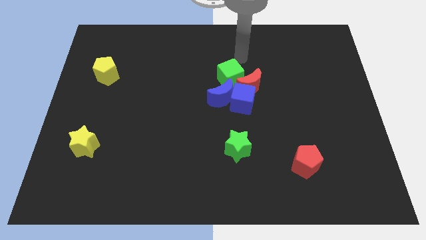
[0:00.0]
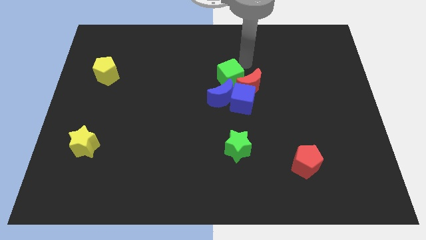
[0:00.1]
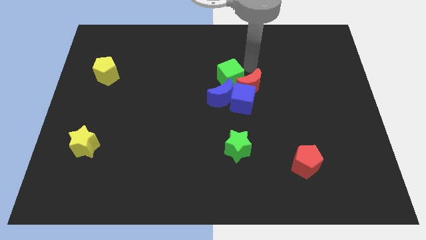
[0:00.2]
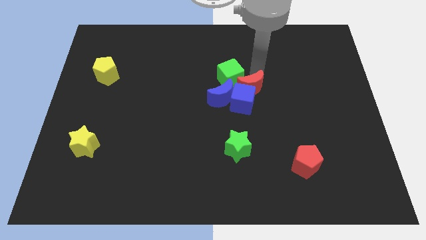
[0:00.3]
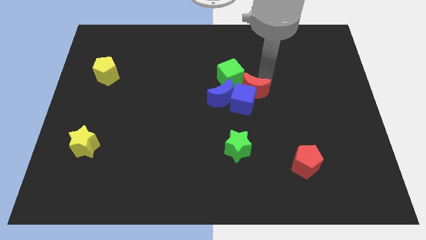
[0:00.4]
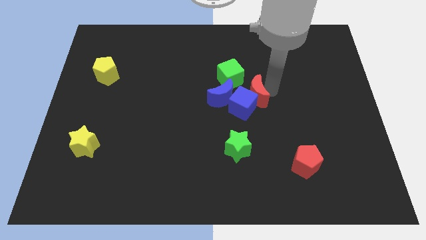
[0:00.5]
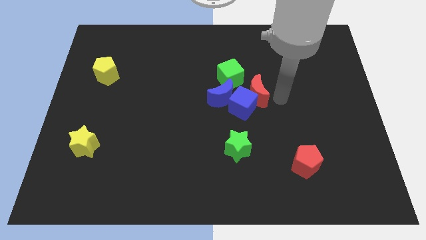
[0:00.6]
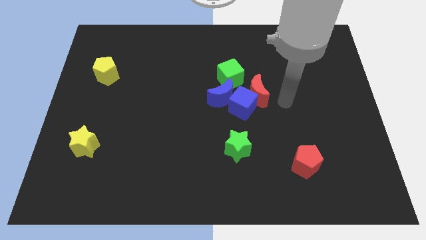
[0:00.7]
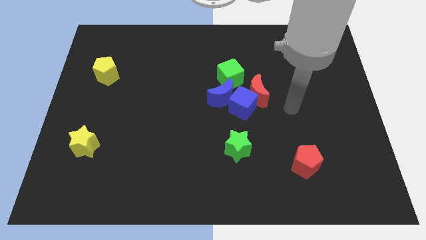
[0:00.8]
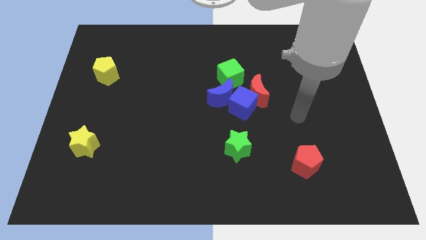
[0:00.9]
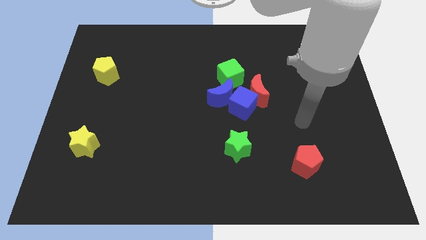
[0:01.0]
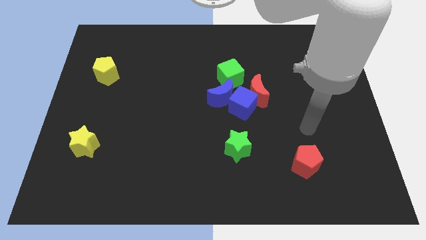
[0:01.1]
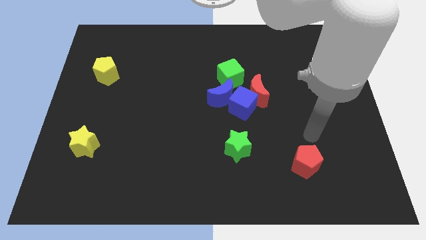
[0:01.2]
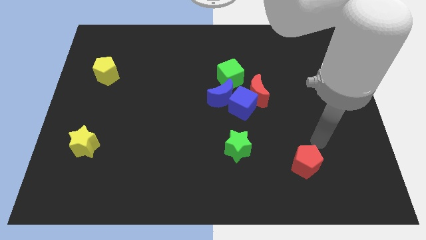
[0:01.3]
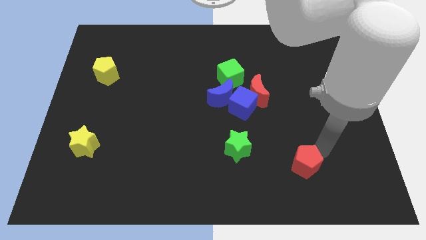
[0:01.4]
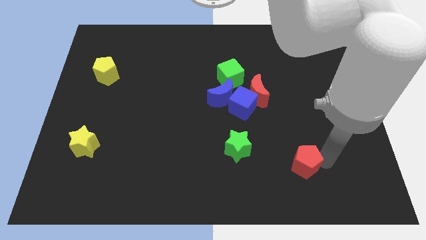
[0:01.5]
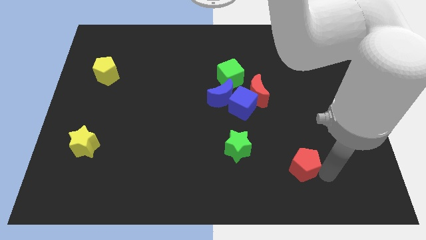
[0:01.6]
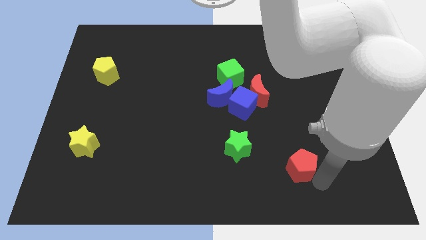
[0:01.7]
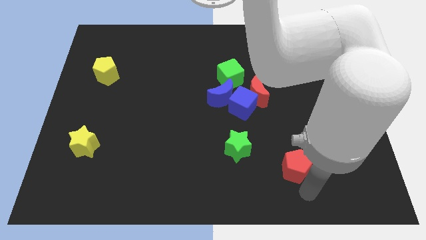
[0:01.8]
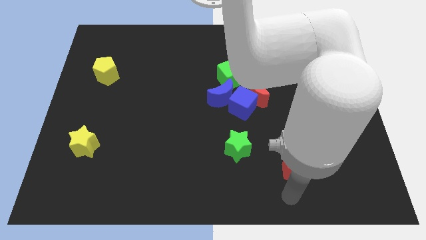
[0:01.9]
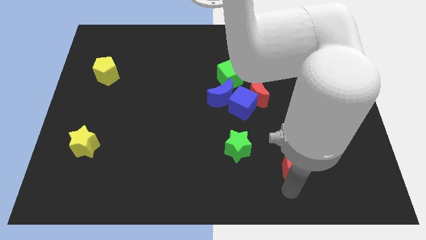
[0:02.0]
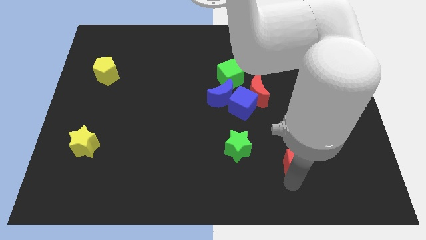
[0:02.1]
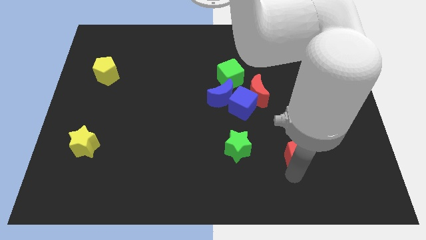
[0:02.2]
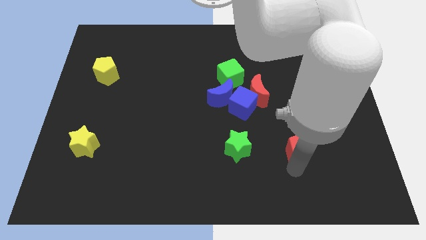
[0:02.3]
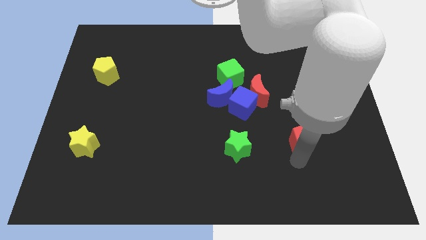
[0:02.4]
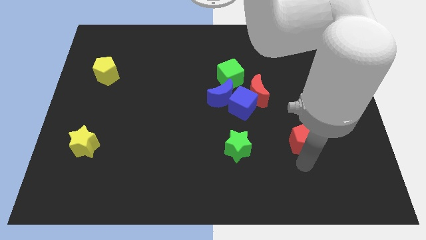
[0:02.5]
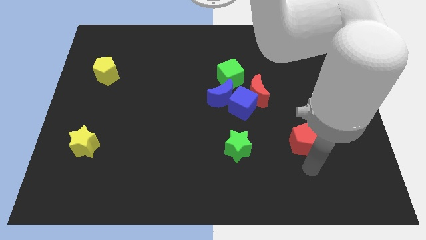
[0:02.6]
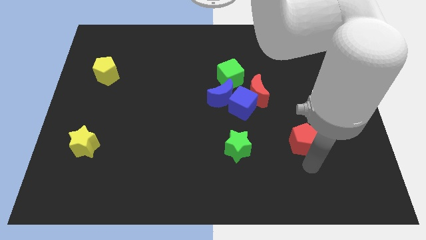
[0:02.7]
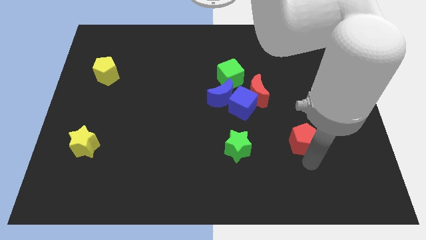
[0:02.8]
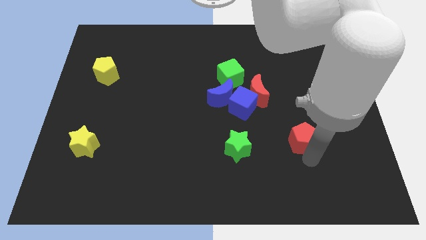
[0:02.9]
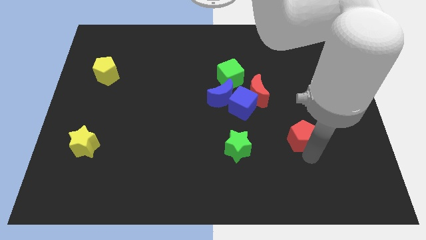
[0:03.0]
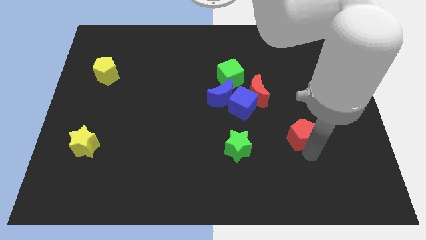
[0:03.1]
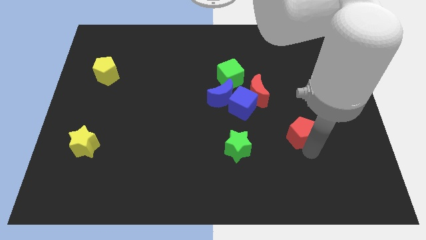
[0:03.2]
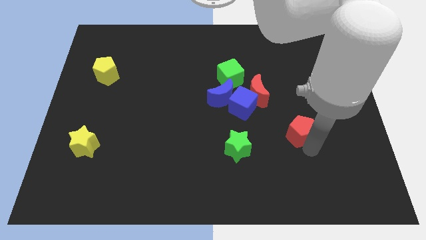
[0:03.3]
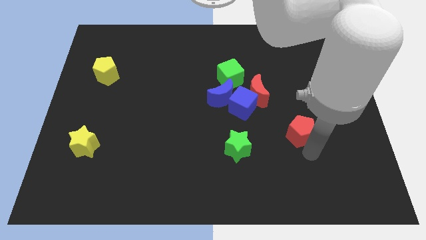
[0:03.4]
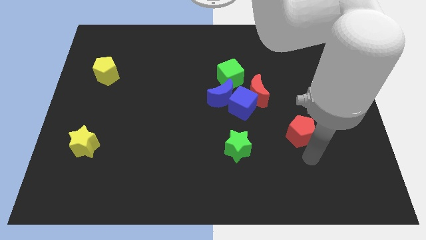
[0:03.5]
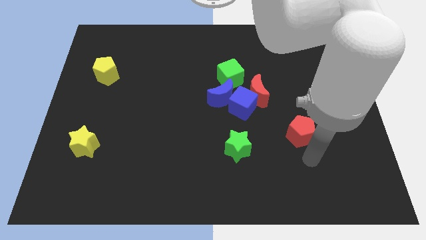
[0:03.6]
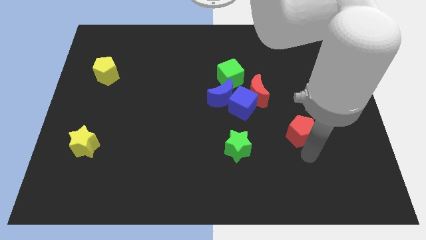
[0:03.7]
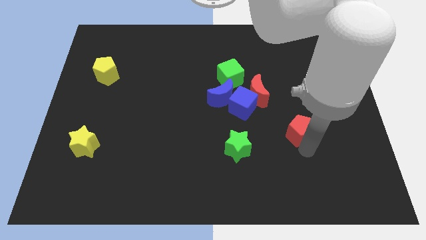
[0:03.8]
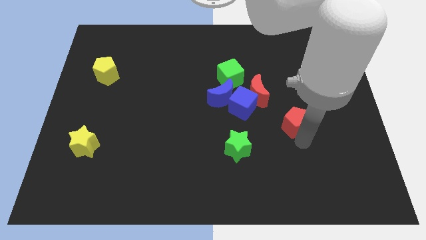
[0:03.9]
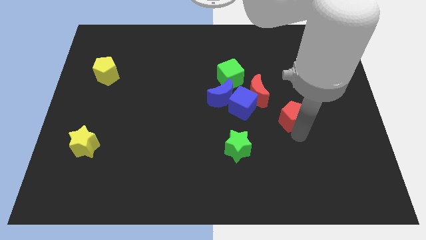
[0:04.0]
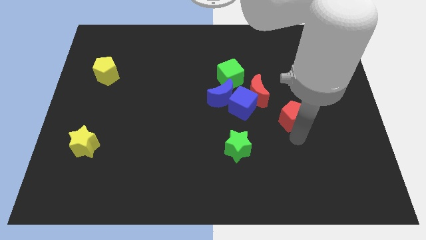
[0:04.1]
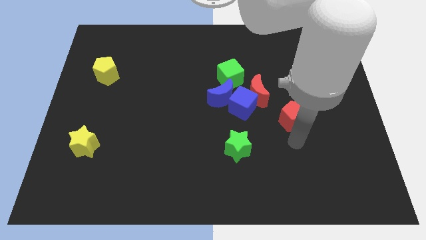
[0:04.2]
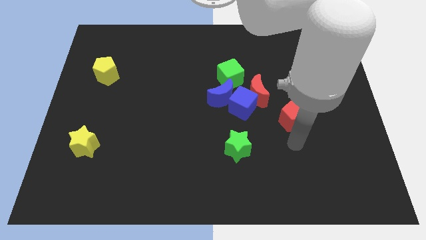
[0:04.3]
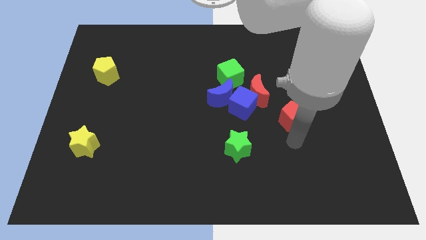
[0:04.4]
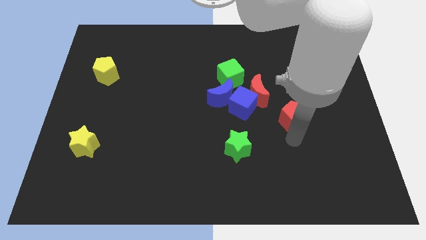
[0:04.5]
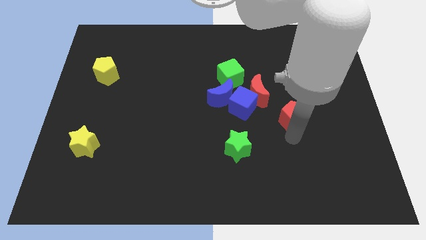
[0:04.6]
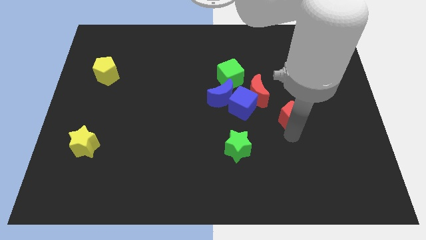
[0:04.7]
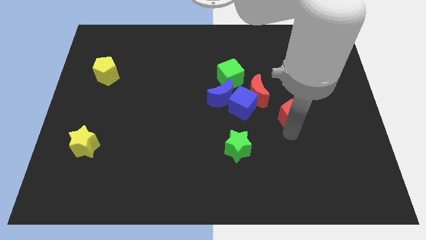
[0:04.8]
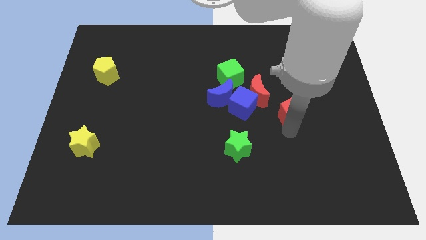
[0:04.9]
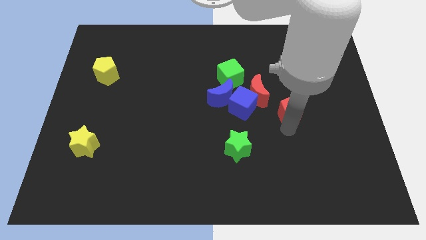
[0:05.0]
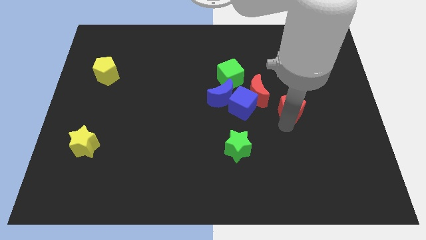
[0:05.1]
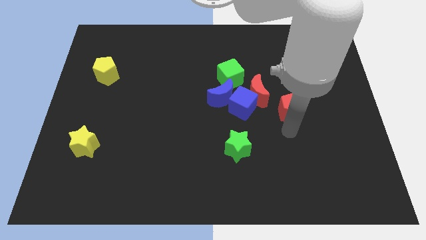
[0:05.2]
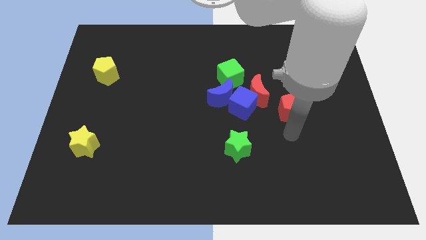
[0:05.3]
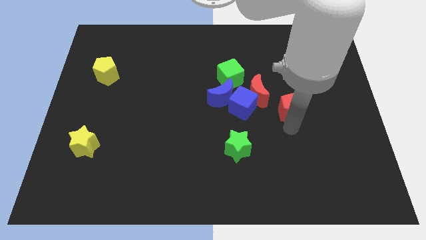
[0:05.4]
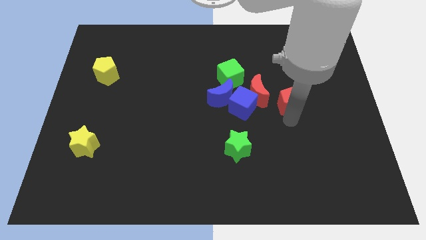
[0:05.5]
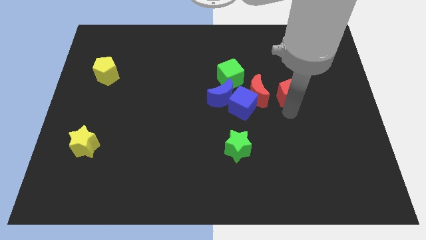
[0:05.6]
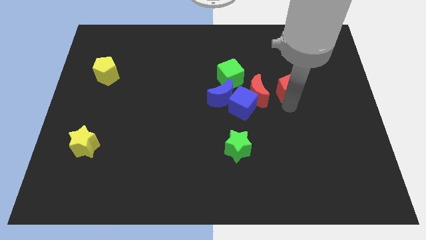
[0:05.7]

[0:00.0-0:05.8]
push the red pentagon upwards

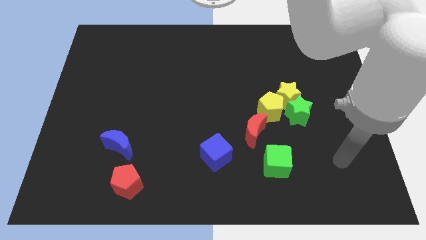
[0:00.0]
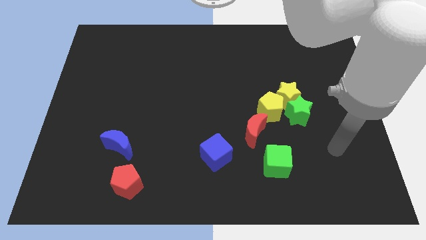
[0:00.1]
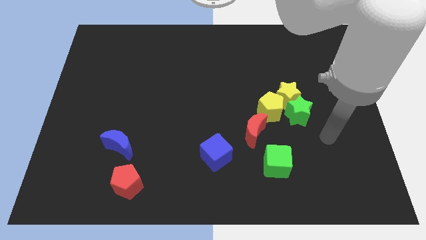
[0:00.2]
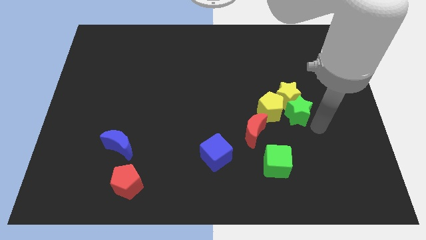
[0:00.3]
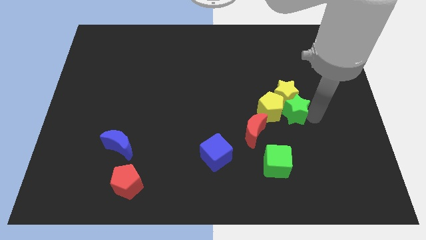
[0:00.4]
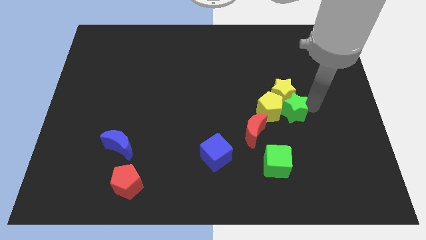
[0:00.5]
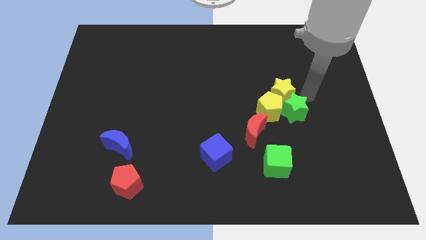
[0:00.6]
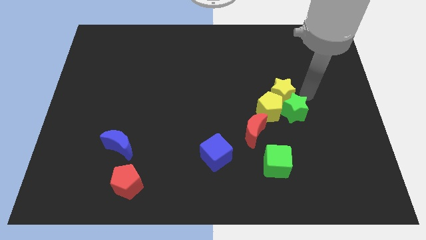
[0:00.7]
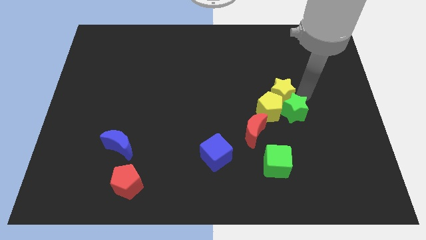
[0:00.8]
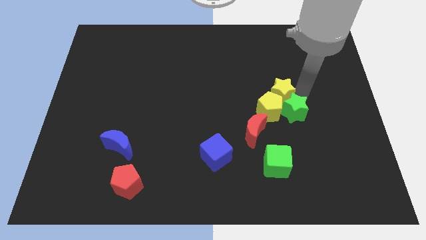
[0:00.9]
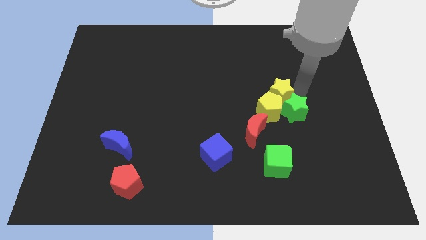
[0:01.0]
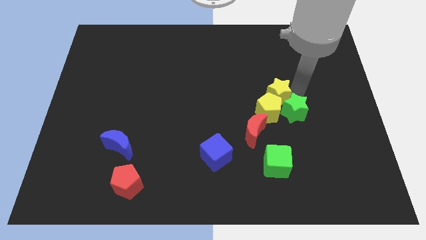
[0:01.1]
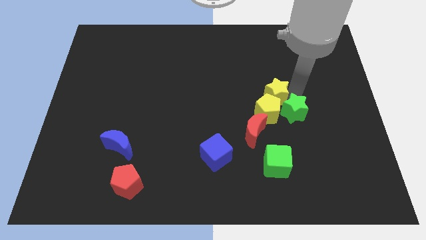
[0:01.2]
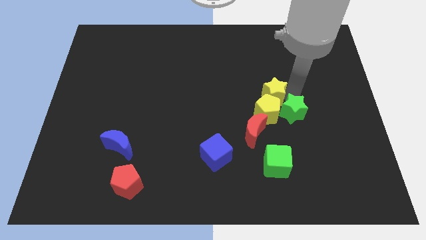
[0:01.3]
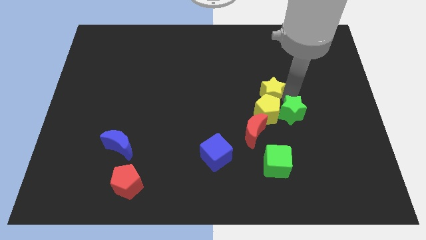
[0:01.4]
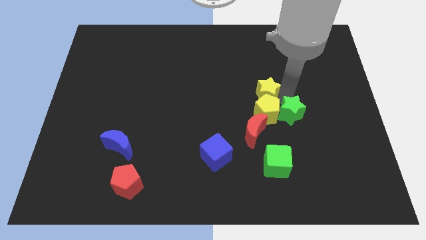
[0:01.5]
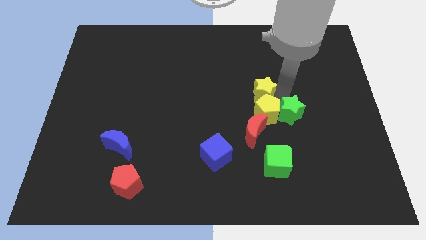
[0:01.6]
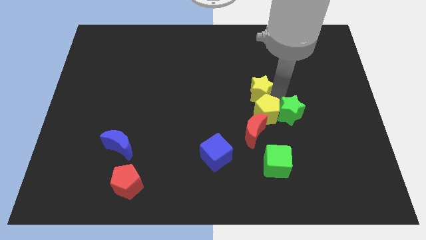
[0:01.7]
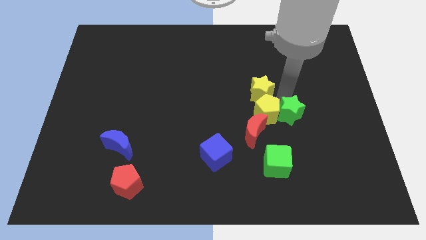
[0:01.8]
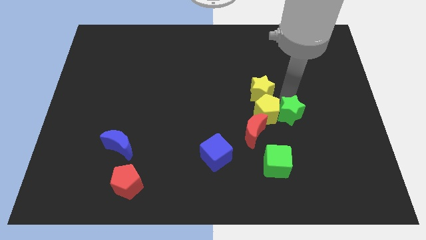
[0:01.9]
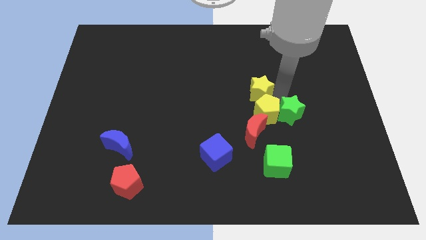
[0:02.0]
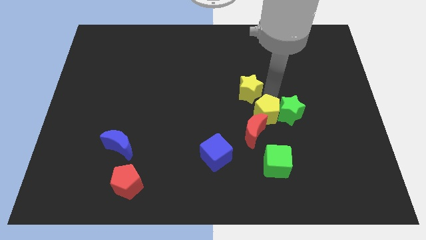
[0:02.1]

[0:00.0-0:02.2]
slide the yellow star slightly to the left

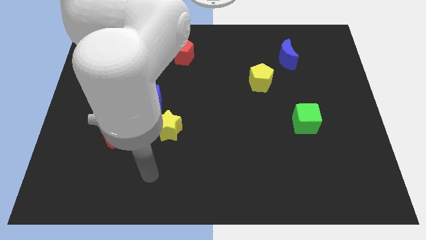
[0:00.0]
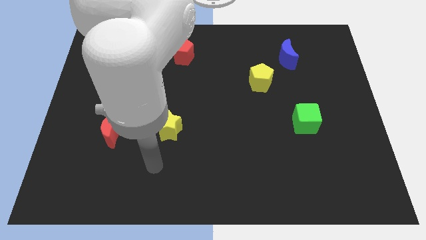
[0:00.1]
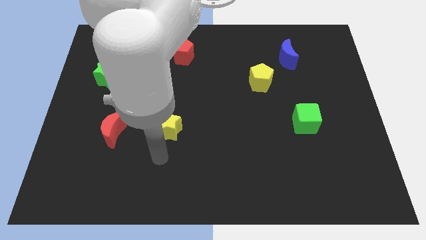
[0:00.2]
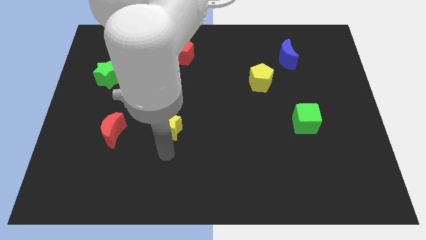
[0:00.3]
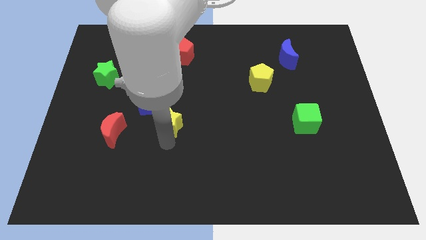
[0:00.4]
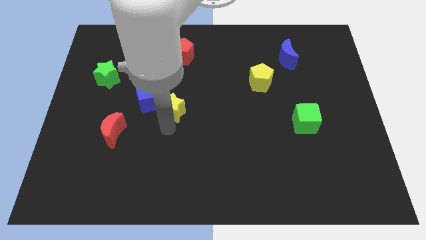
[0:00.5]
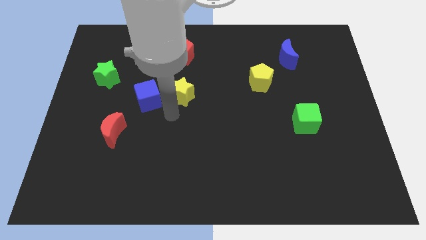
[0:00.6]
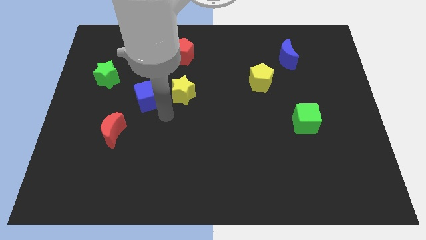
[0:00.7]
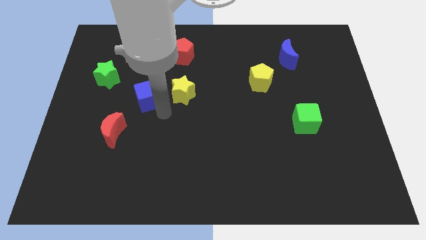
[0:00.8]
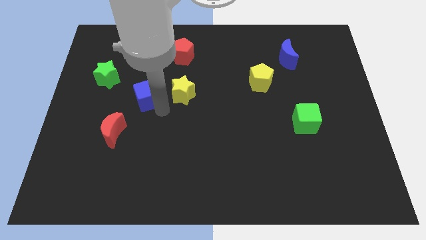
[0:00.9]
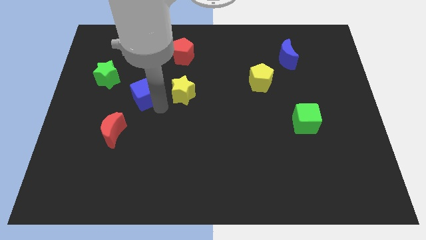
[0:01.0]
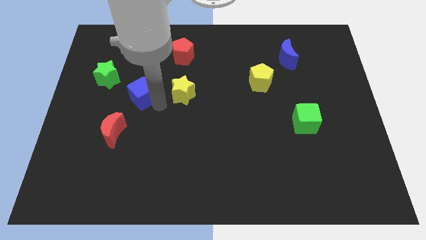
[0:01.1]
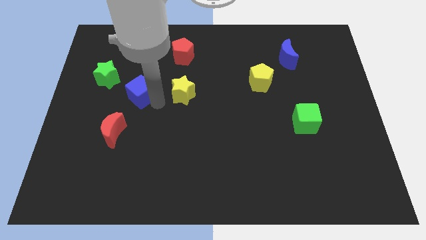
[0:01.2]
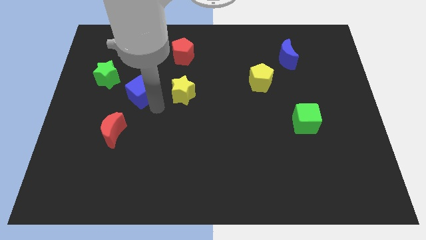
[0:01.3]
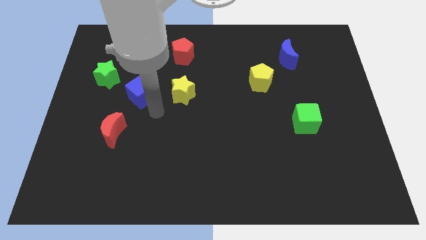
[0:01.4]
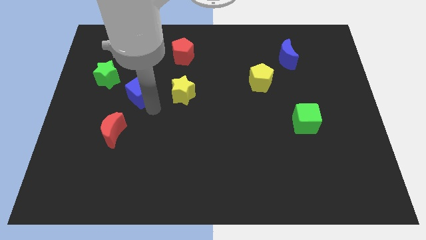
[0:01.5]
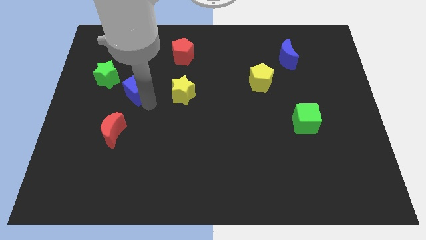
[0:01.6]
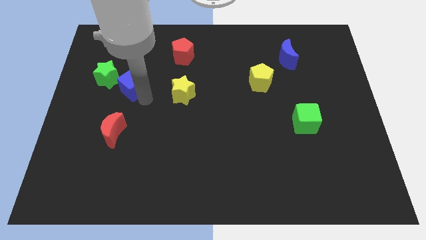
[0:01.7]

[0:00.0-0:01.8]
slide the blue cube slightly upwards and then to the left
